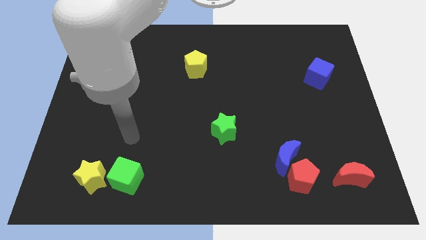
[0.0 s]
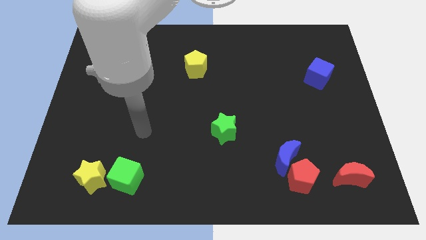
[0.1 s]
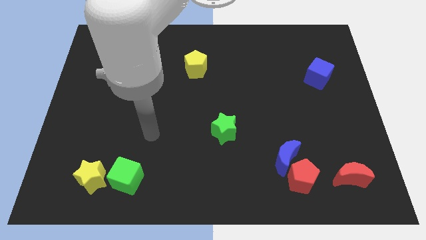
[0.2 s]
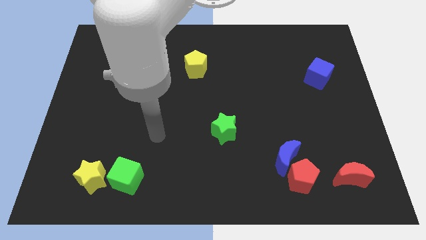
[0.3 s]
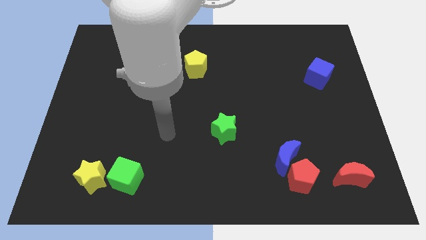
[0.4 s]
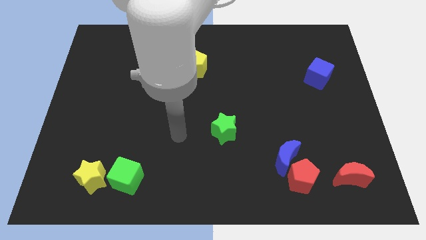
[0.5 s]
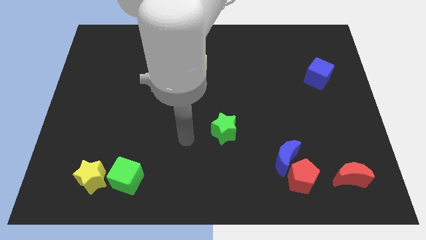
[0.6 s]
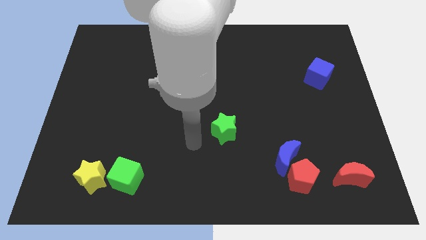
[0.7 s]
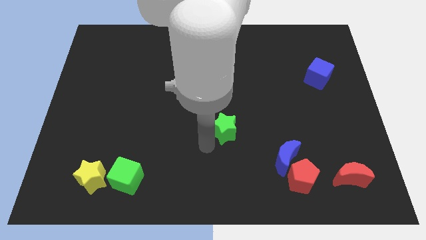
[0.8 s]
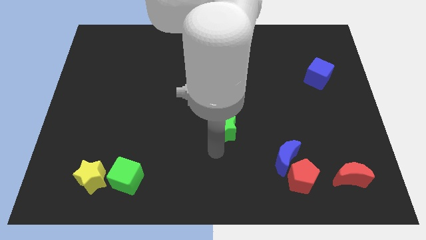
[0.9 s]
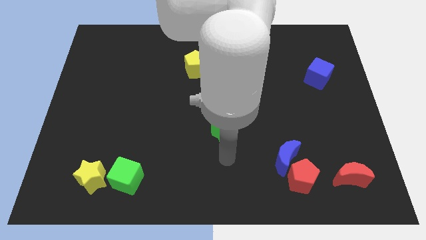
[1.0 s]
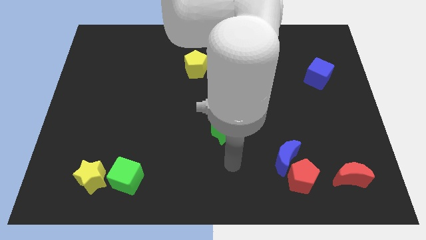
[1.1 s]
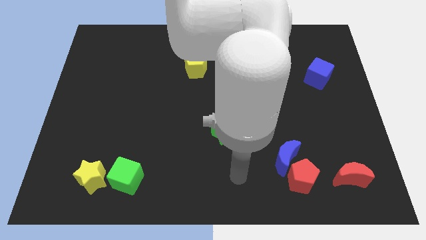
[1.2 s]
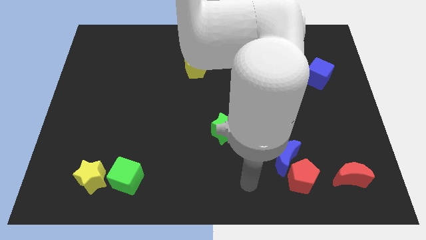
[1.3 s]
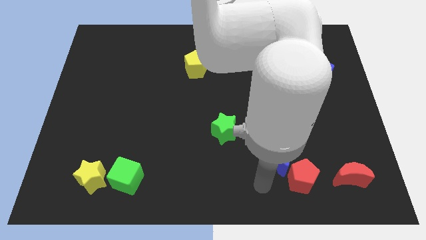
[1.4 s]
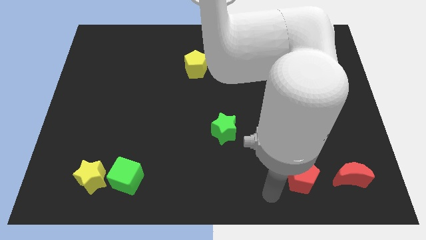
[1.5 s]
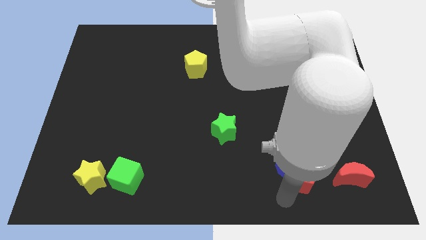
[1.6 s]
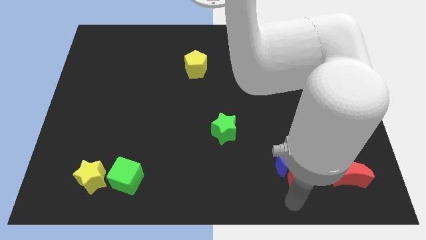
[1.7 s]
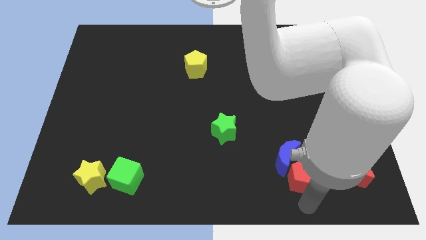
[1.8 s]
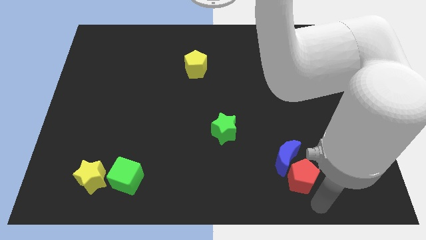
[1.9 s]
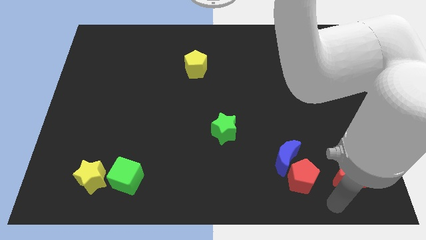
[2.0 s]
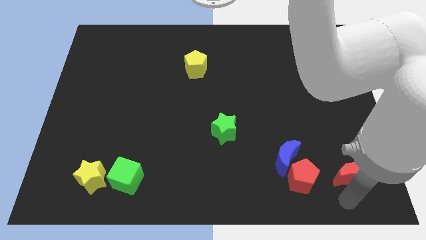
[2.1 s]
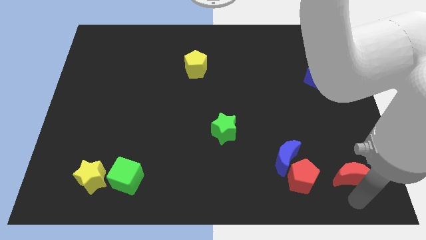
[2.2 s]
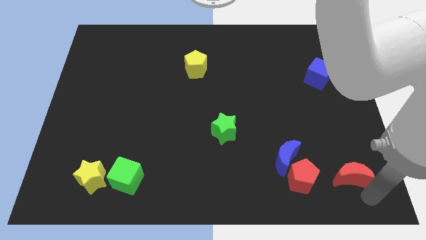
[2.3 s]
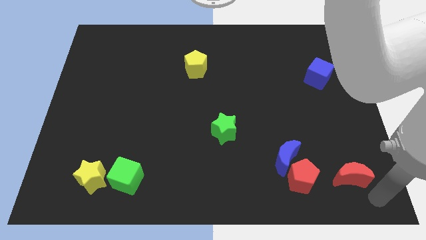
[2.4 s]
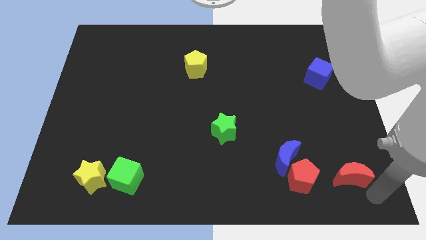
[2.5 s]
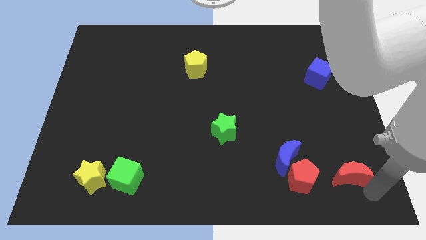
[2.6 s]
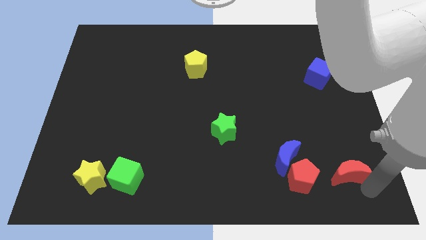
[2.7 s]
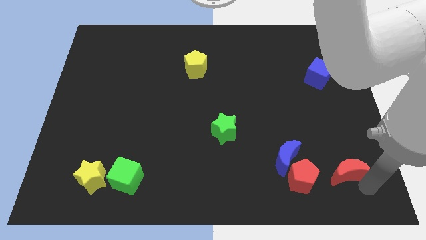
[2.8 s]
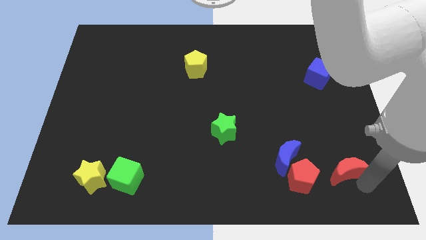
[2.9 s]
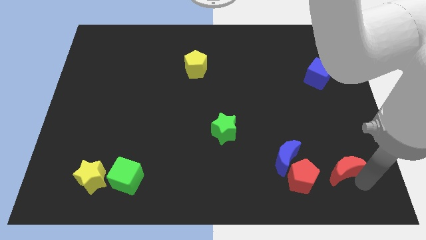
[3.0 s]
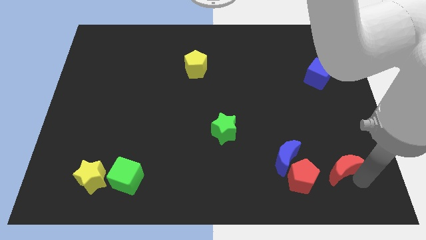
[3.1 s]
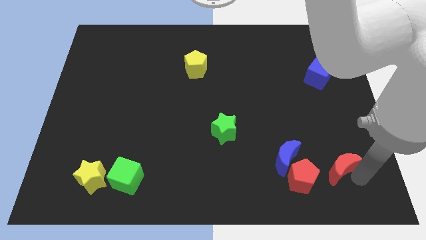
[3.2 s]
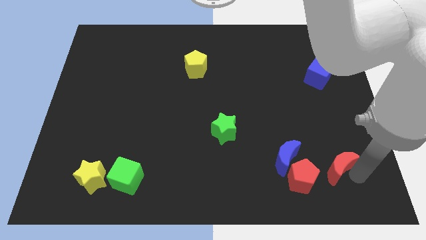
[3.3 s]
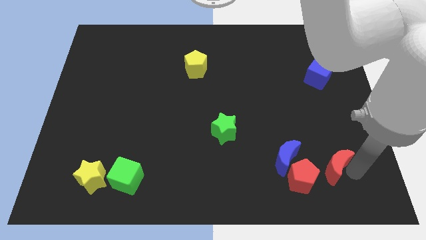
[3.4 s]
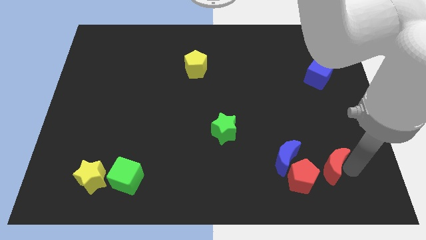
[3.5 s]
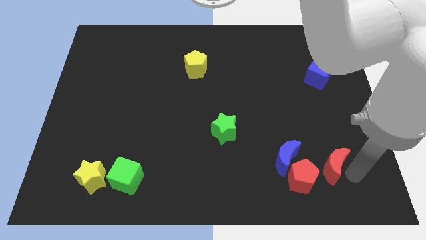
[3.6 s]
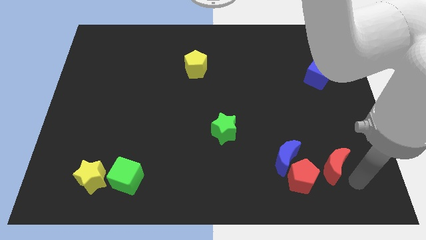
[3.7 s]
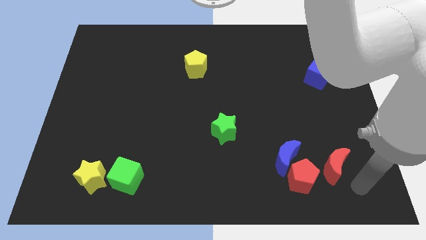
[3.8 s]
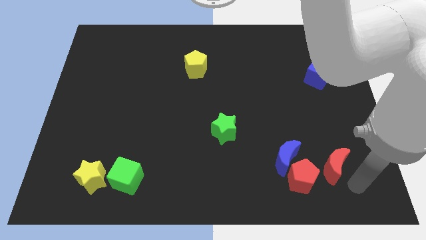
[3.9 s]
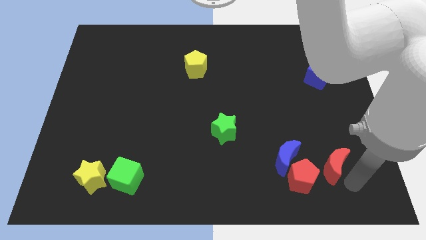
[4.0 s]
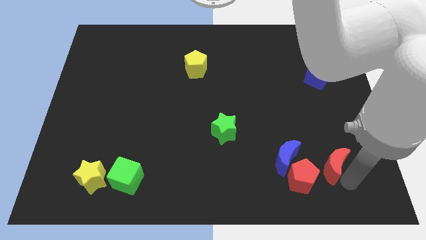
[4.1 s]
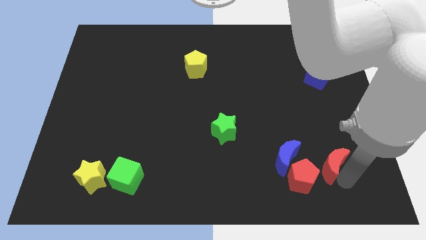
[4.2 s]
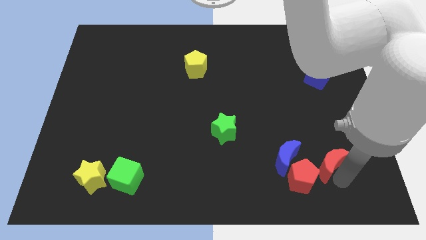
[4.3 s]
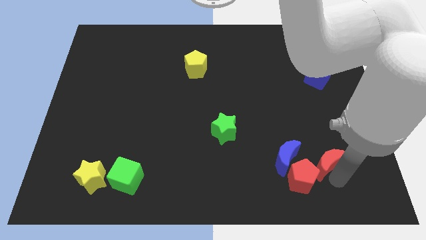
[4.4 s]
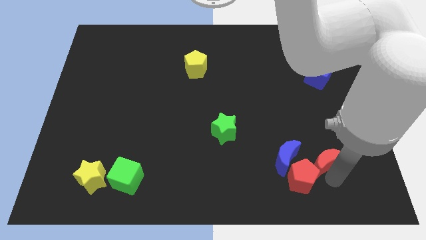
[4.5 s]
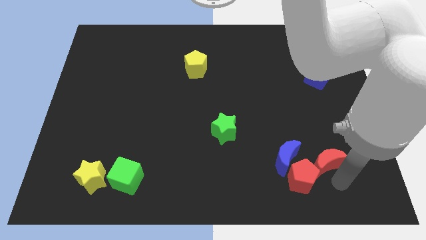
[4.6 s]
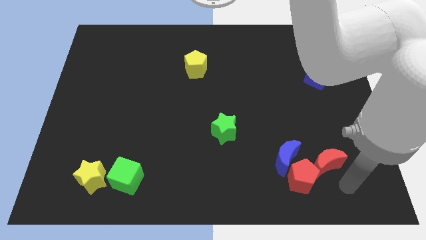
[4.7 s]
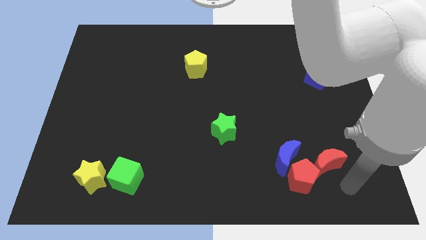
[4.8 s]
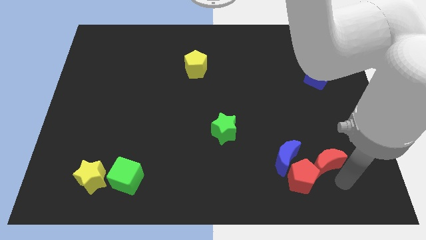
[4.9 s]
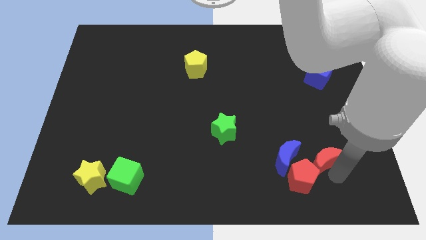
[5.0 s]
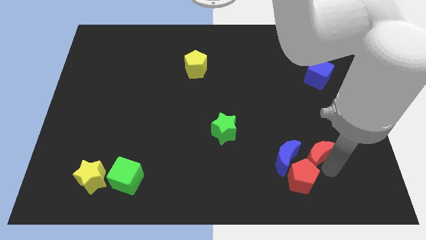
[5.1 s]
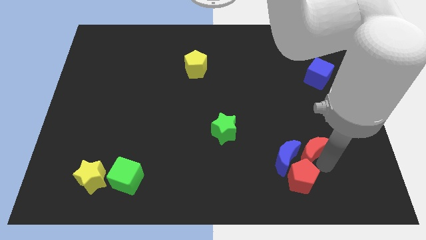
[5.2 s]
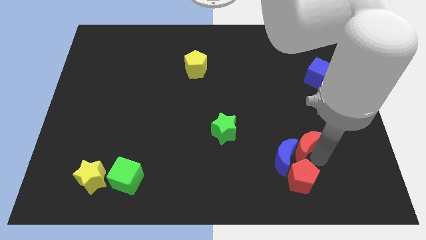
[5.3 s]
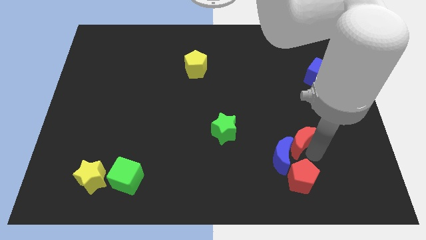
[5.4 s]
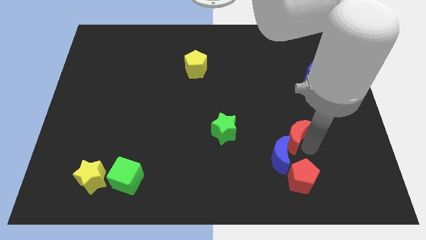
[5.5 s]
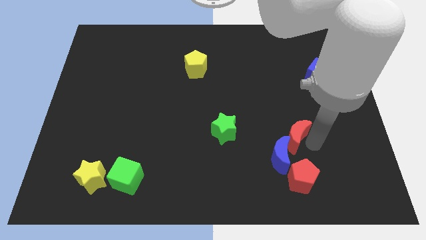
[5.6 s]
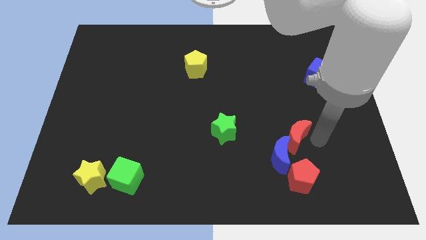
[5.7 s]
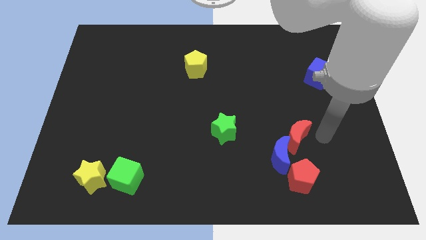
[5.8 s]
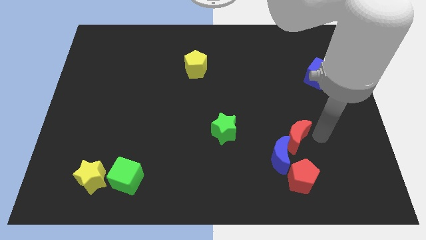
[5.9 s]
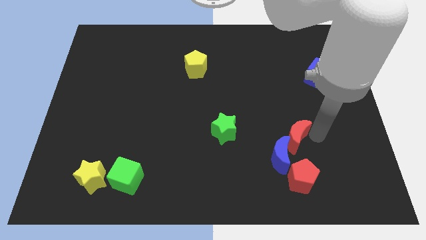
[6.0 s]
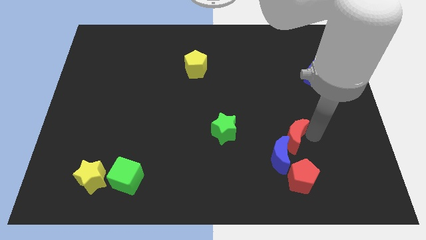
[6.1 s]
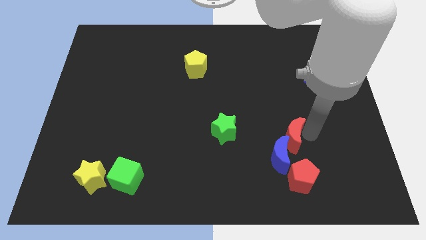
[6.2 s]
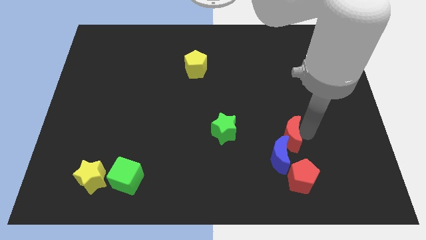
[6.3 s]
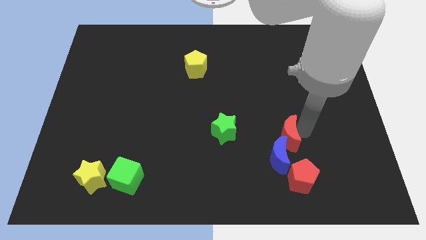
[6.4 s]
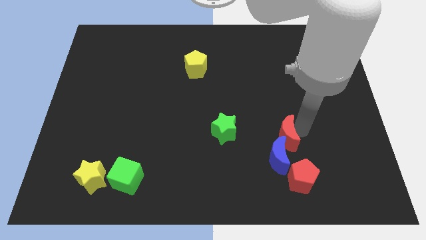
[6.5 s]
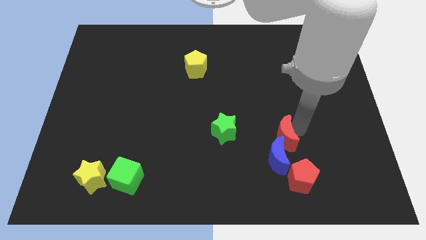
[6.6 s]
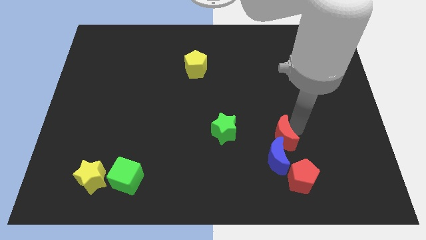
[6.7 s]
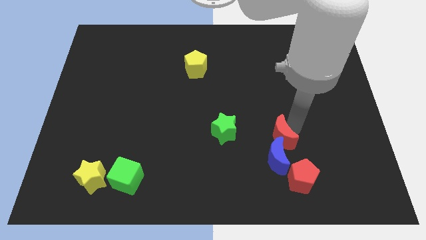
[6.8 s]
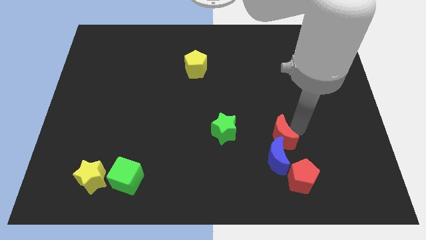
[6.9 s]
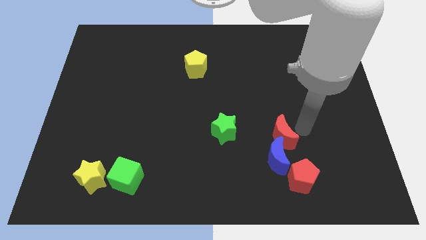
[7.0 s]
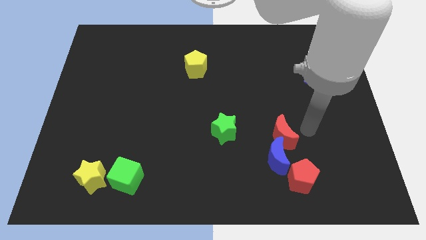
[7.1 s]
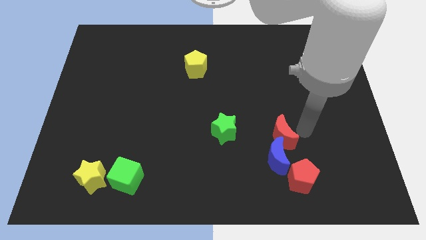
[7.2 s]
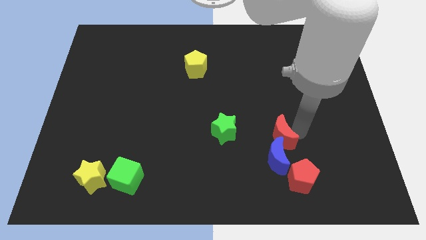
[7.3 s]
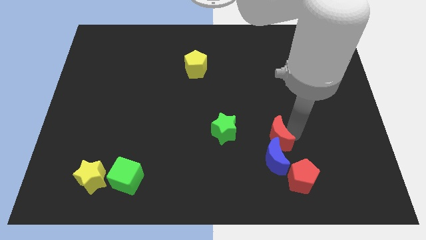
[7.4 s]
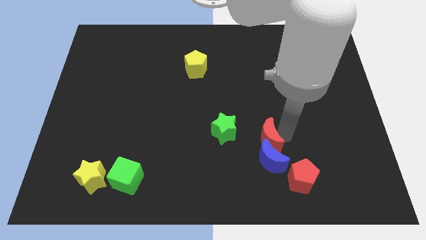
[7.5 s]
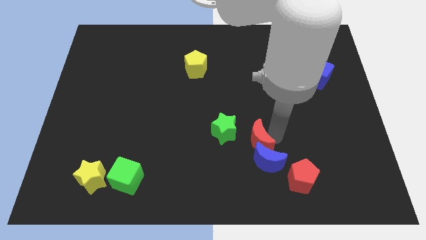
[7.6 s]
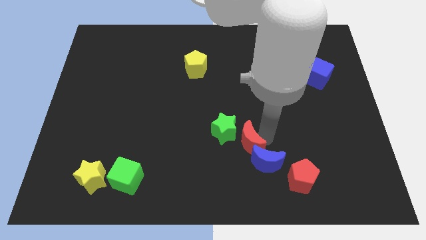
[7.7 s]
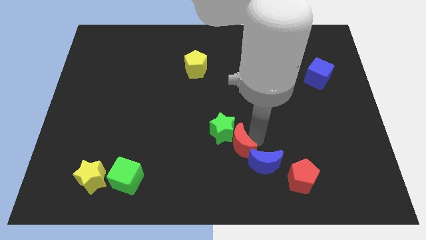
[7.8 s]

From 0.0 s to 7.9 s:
push the red moon left of the blue moon
